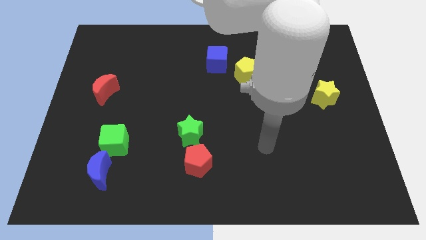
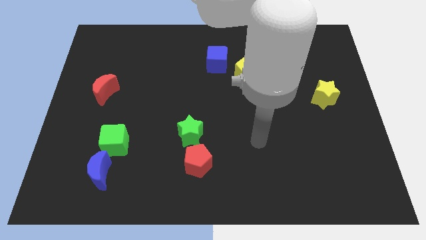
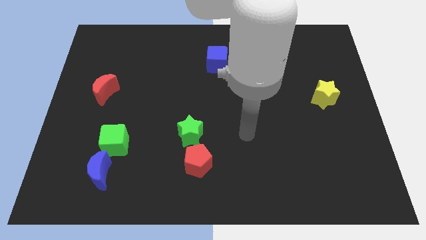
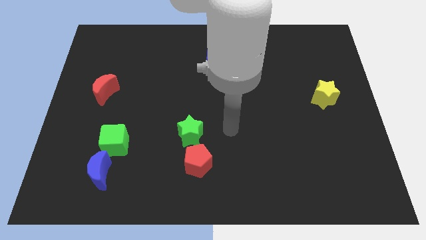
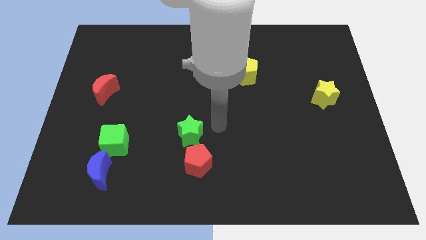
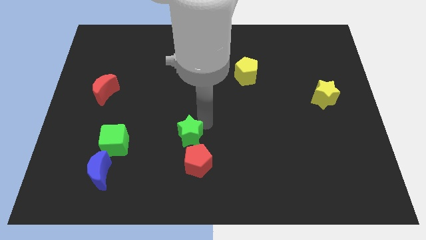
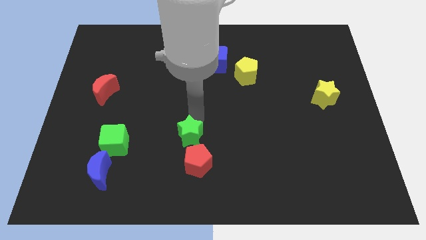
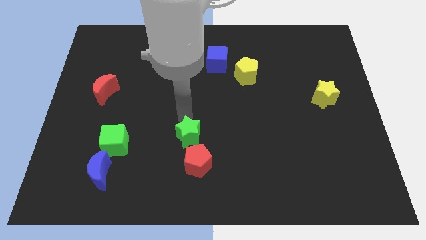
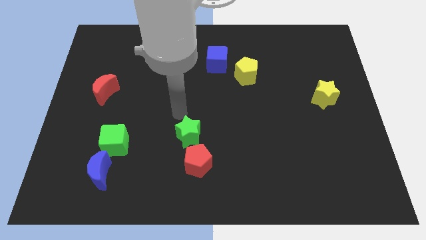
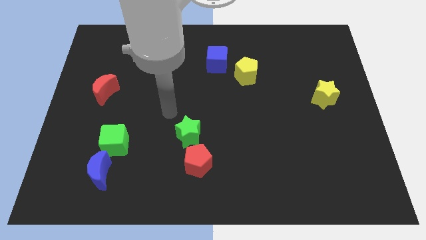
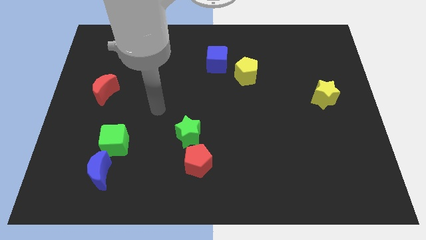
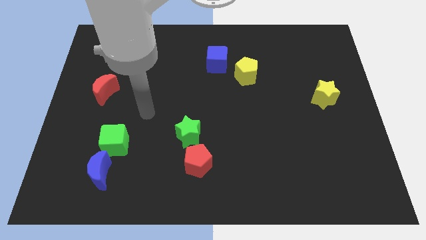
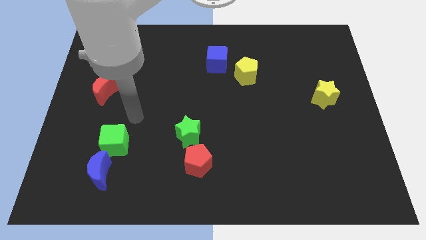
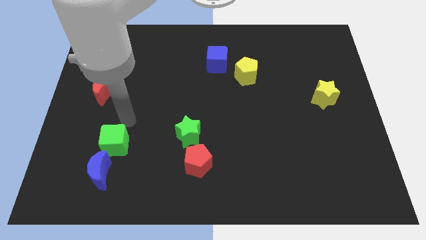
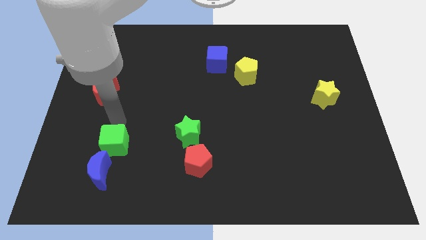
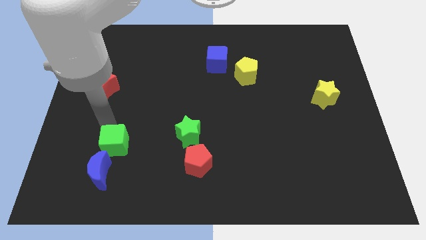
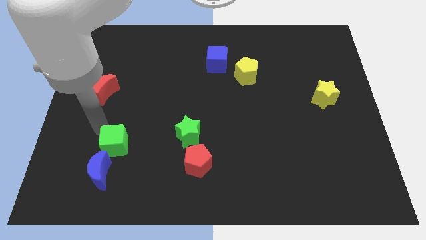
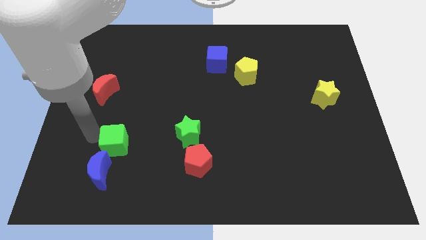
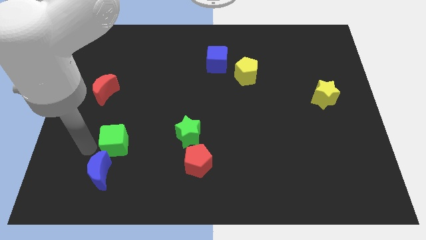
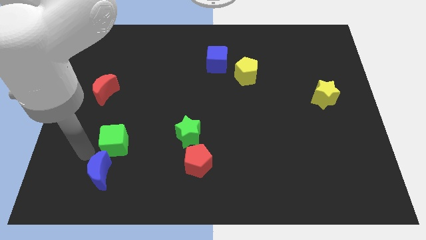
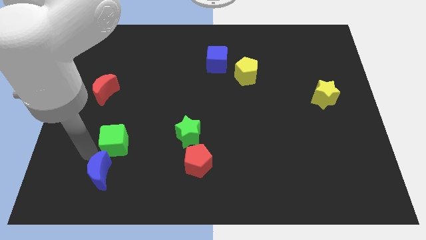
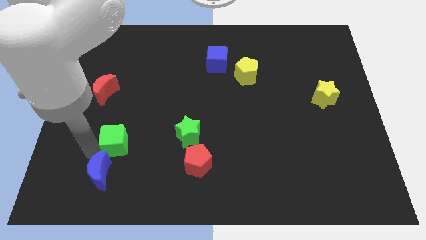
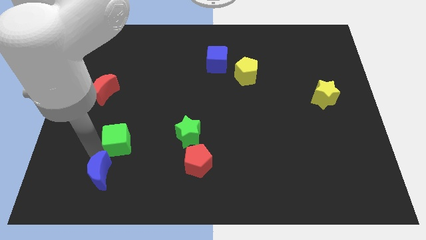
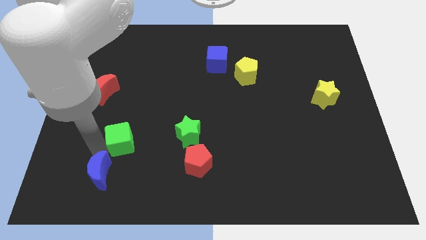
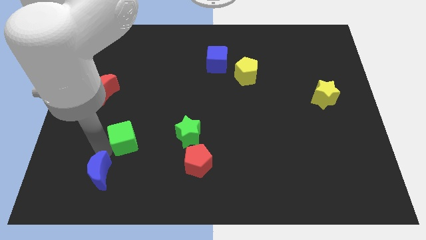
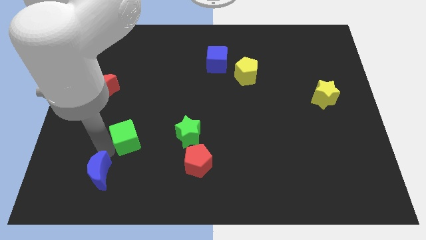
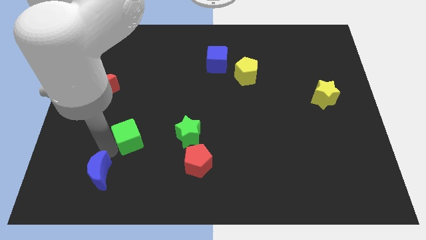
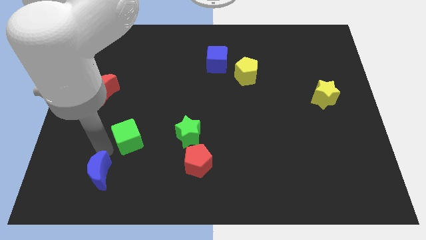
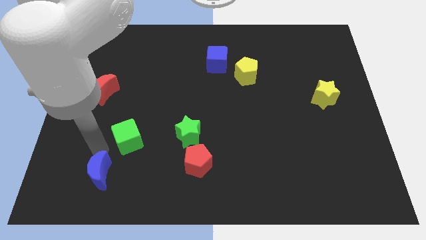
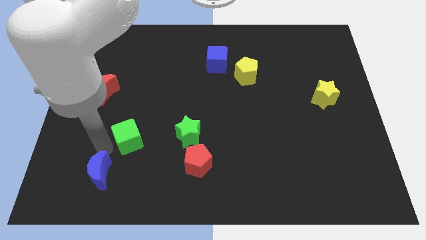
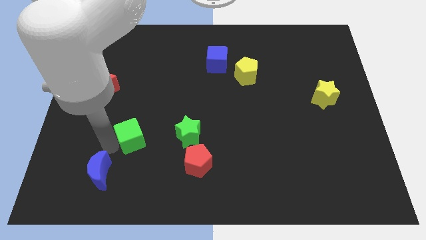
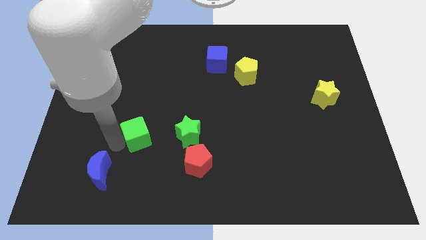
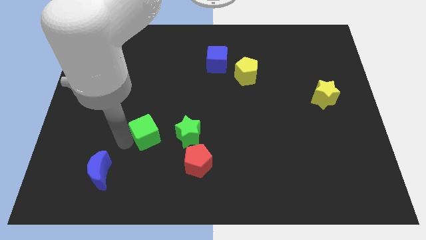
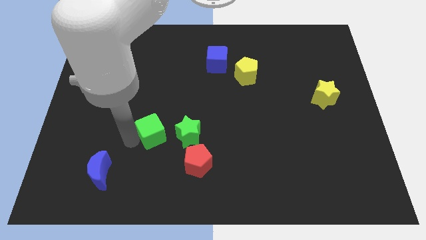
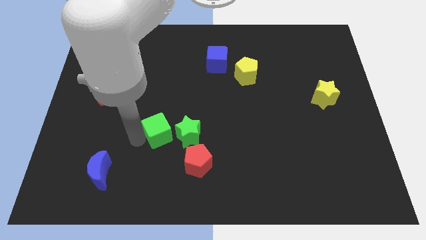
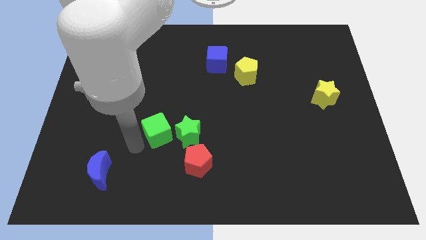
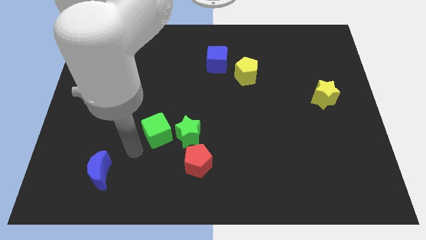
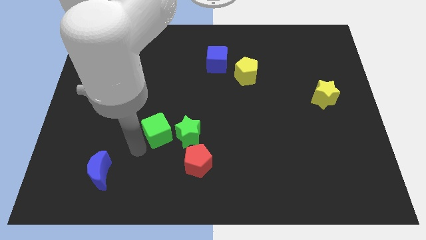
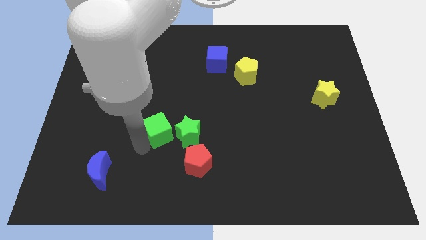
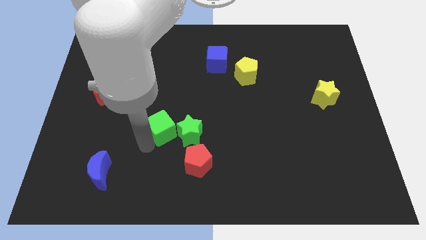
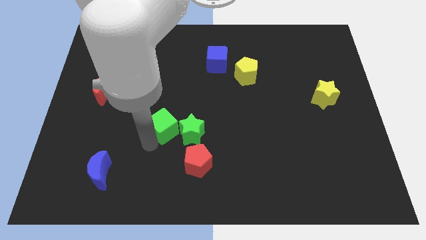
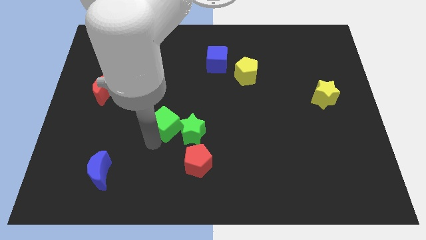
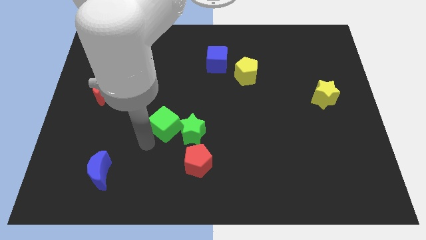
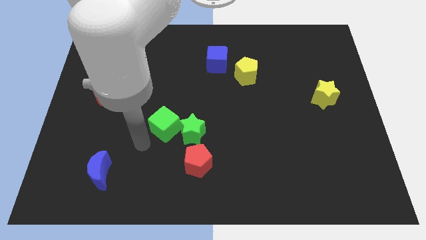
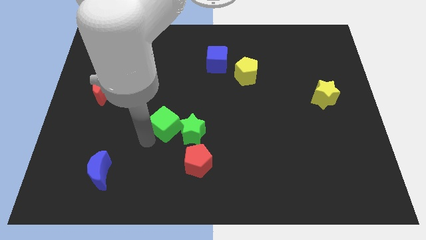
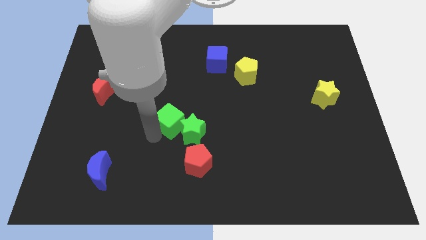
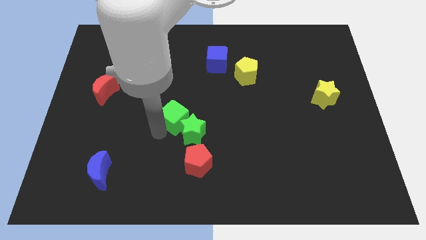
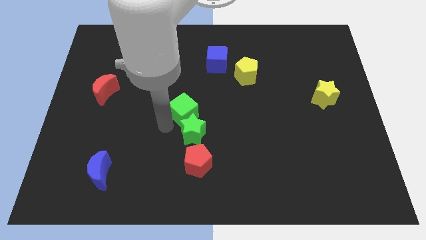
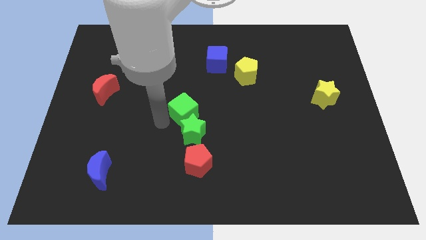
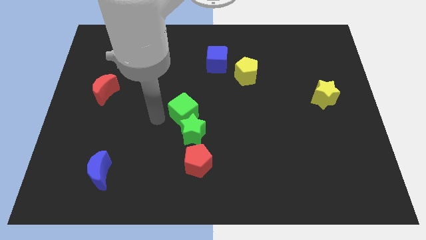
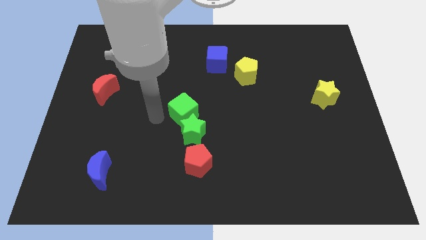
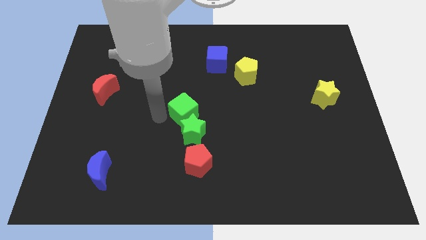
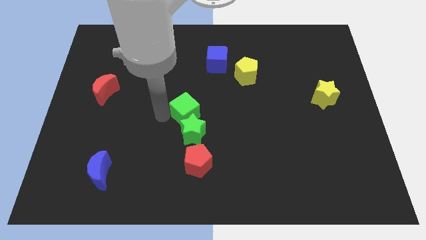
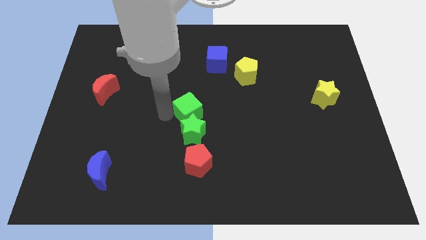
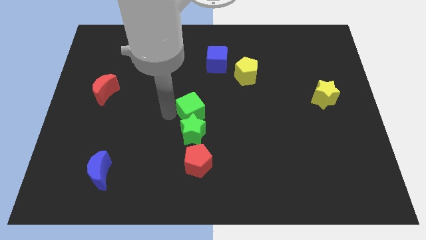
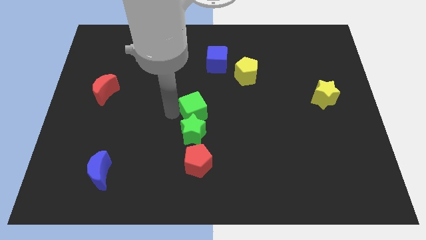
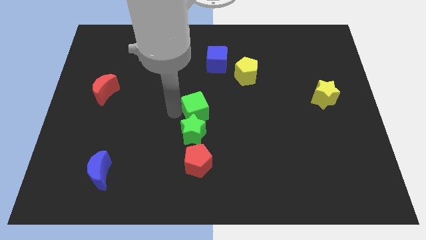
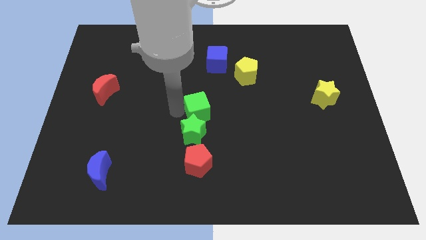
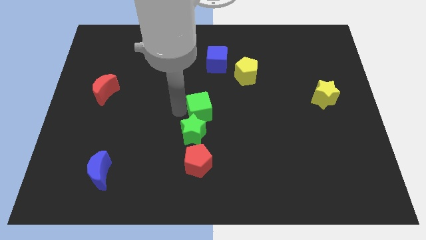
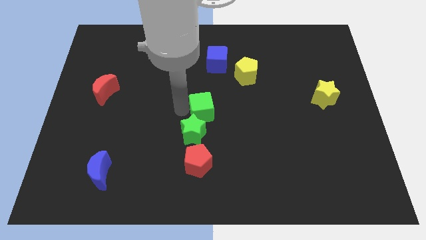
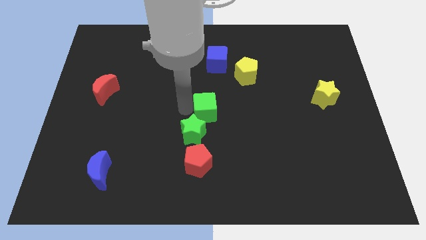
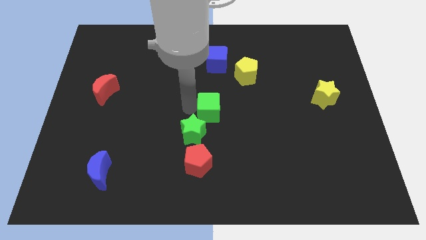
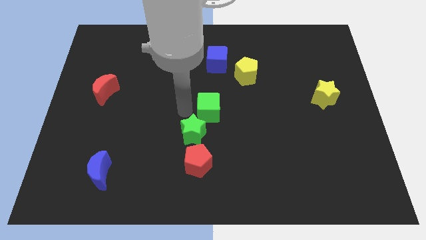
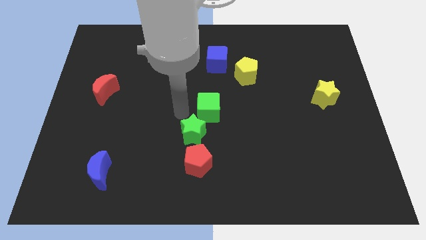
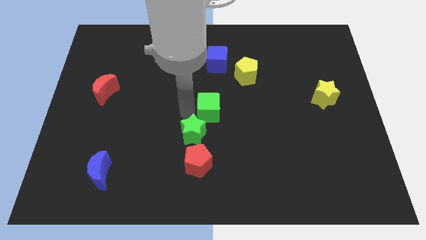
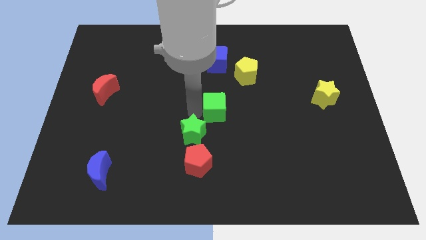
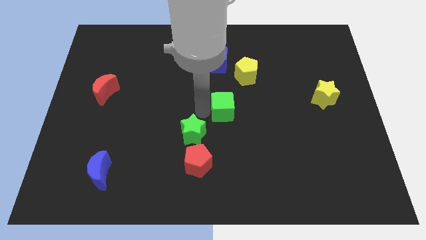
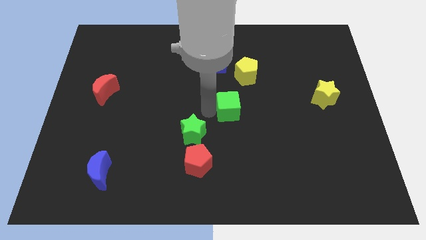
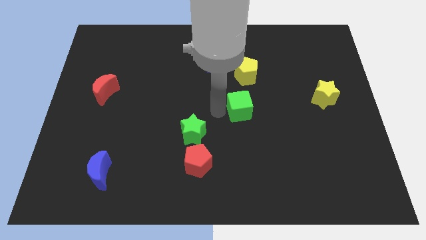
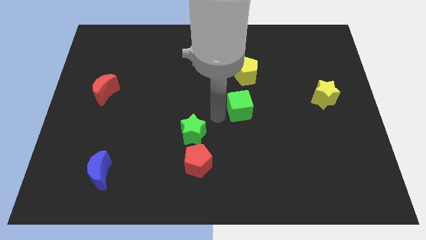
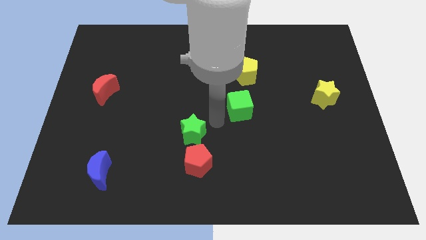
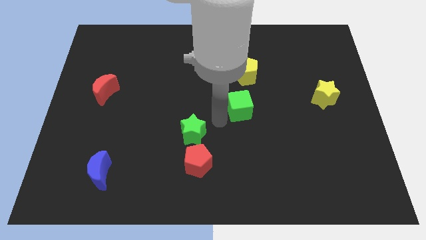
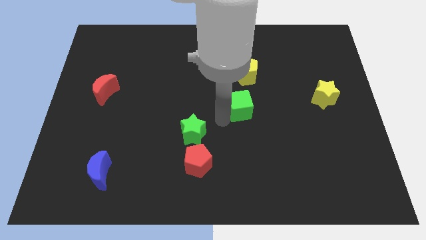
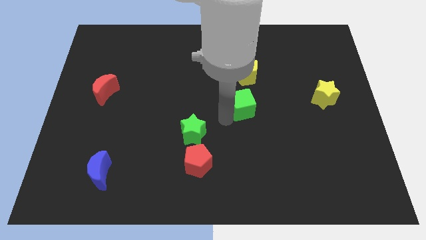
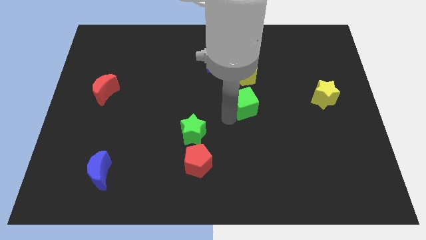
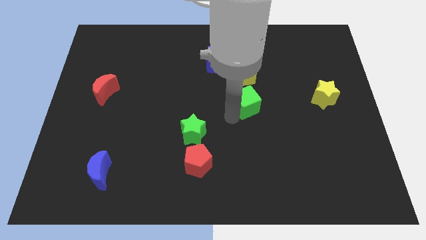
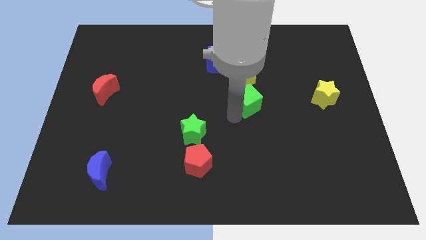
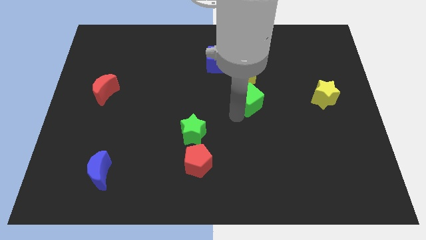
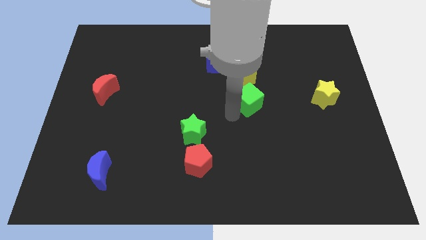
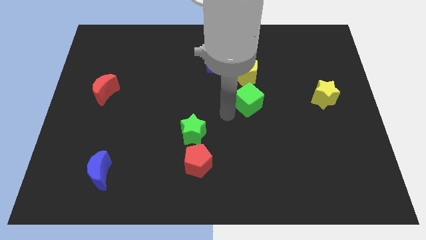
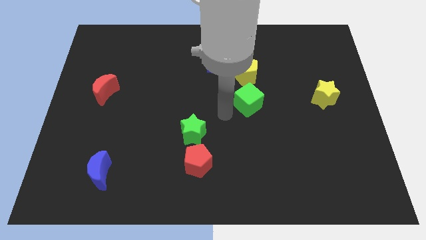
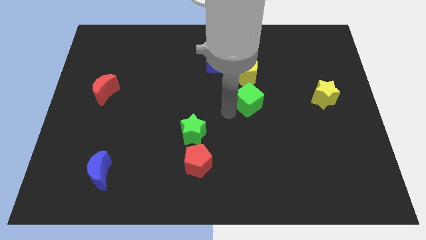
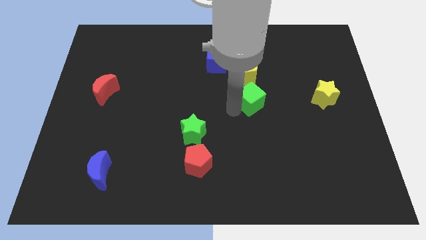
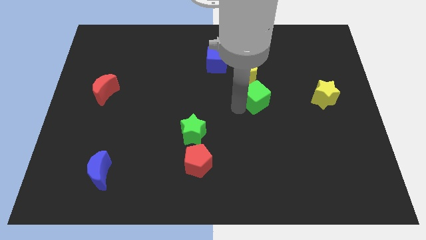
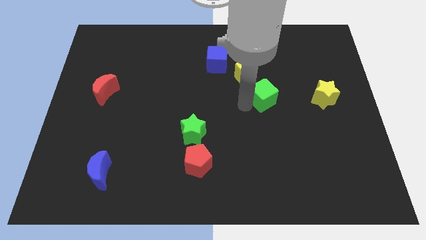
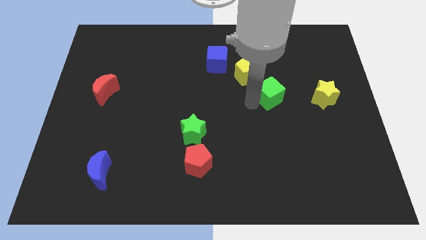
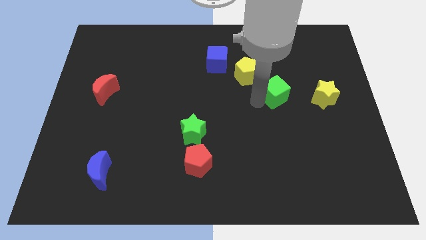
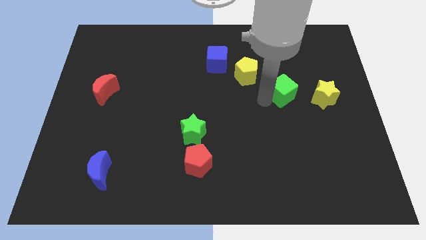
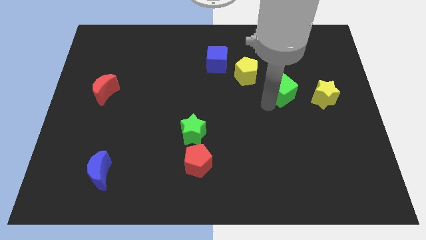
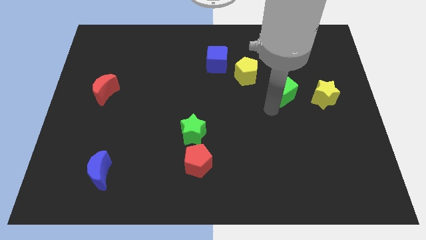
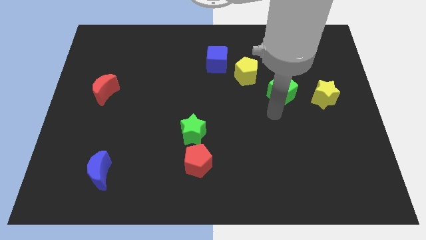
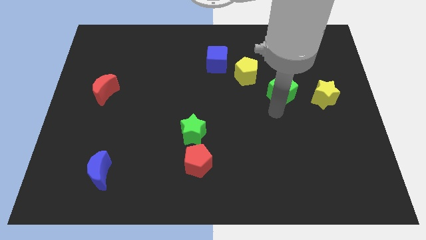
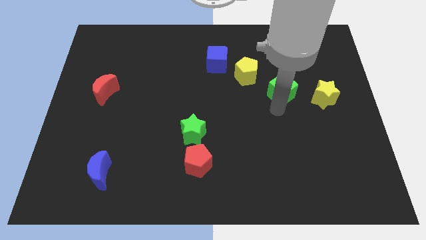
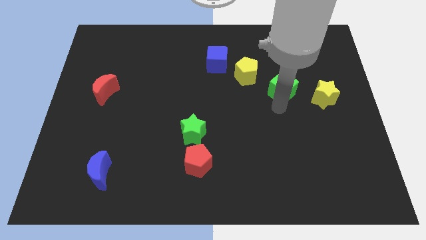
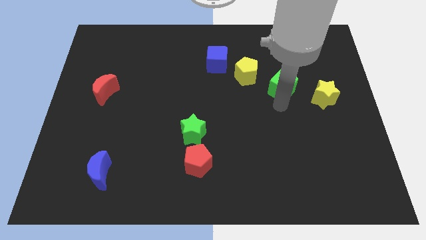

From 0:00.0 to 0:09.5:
move the green cube just right of the yellow pentagon
